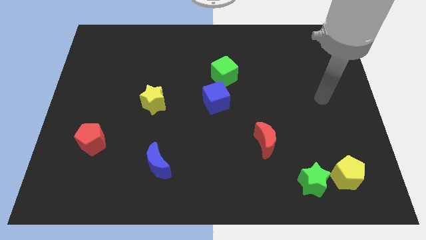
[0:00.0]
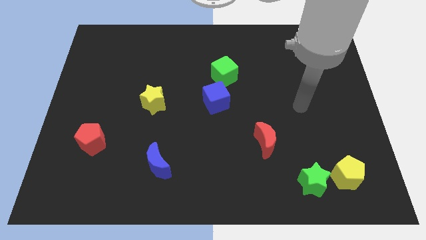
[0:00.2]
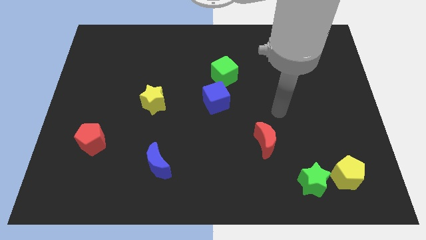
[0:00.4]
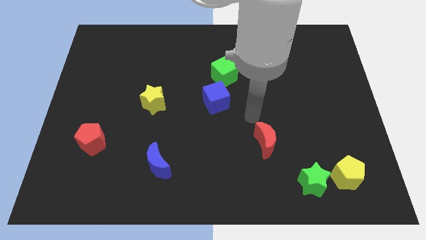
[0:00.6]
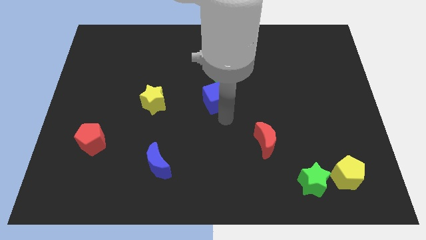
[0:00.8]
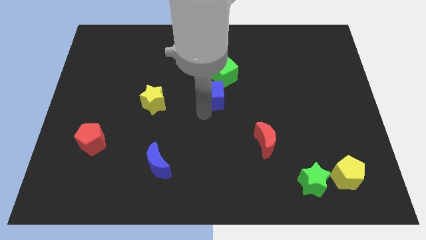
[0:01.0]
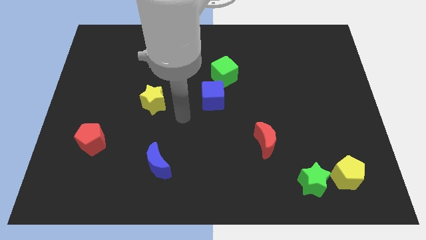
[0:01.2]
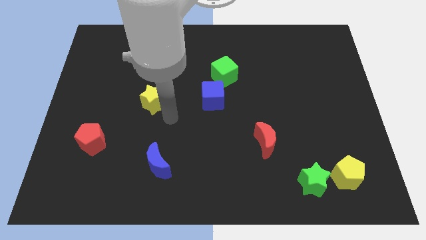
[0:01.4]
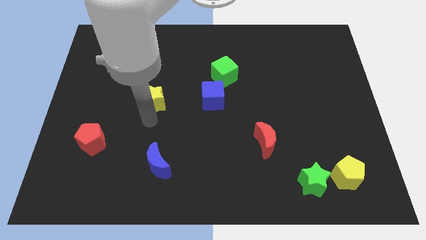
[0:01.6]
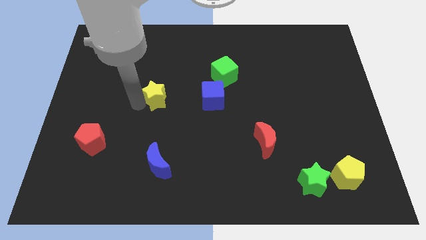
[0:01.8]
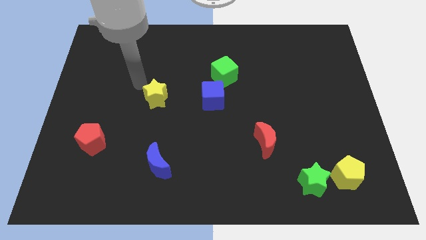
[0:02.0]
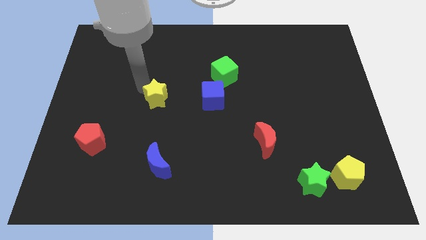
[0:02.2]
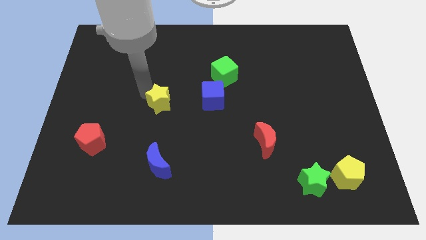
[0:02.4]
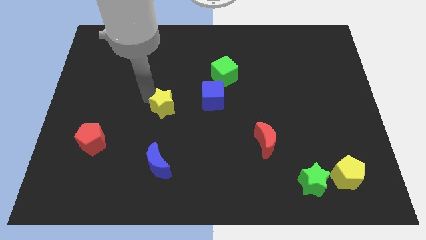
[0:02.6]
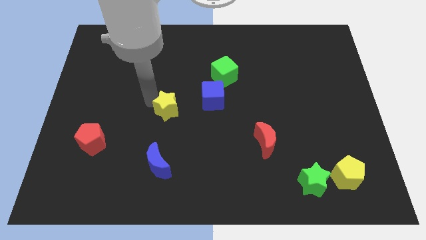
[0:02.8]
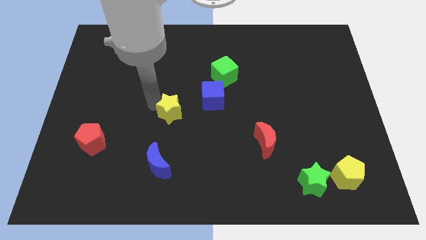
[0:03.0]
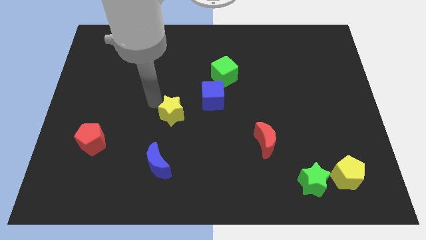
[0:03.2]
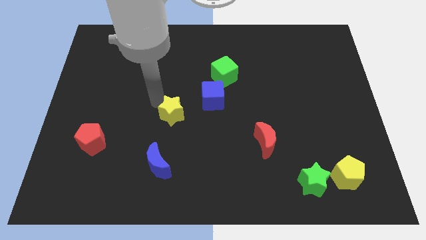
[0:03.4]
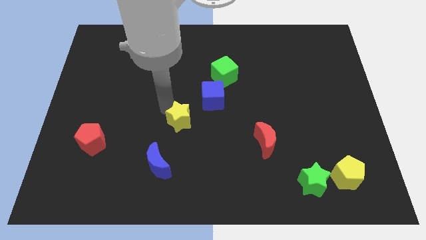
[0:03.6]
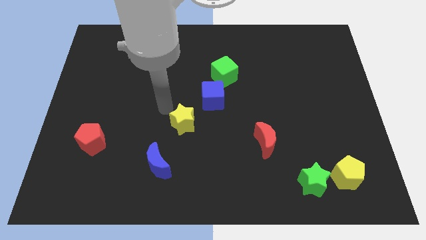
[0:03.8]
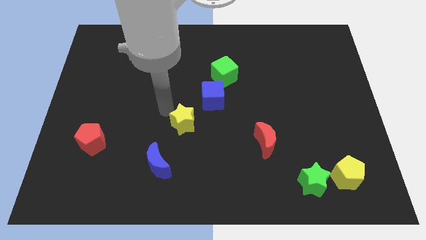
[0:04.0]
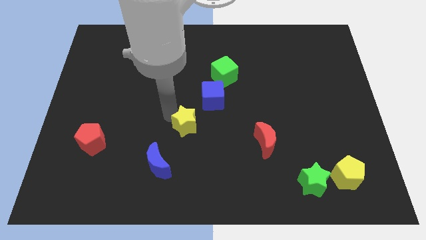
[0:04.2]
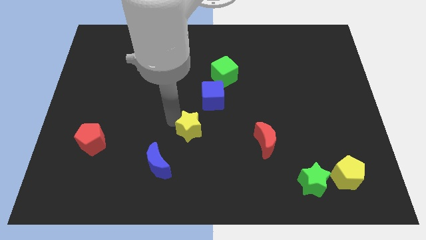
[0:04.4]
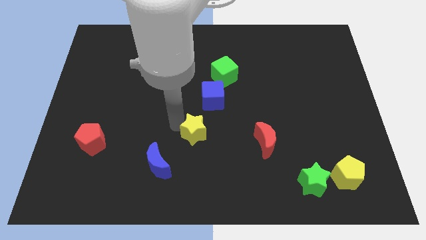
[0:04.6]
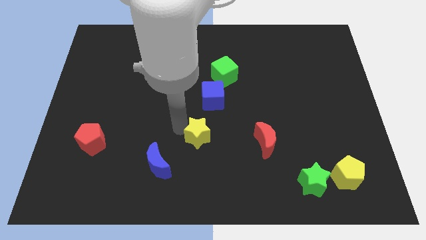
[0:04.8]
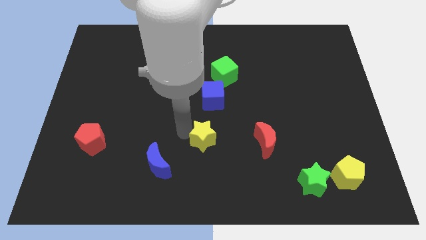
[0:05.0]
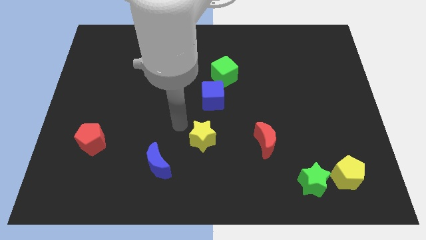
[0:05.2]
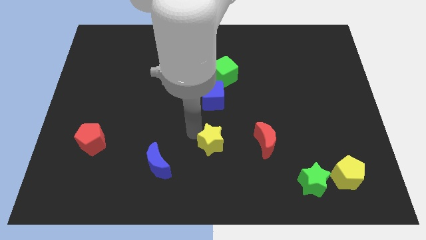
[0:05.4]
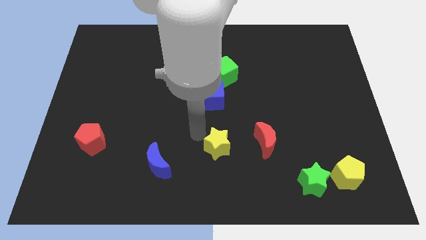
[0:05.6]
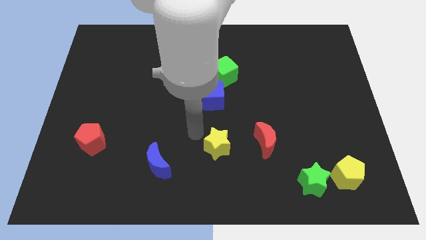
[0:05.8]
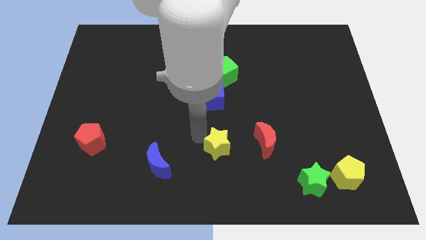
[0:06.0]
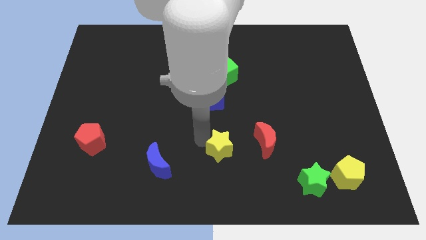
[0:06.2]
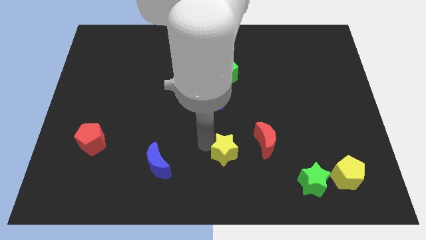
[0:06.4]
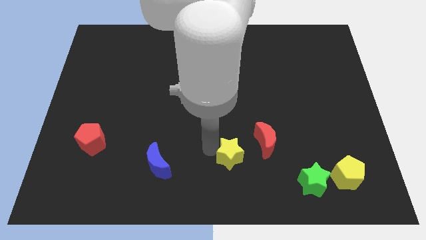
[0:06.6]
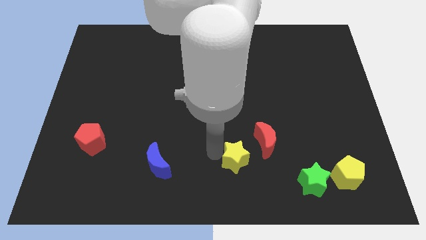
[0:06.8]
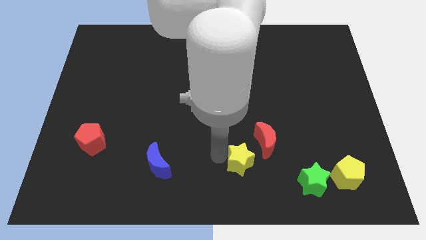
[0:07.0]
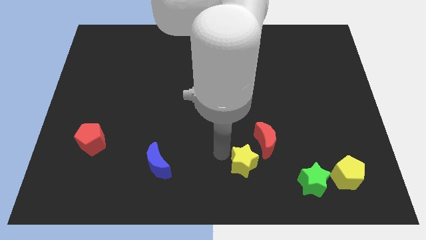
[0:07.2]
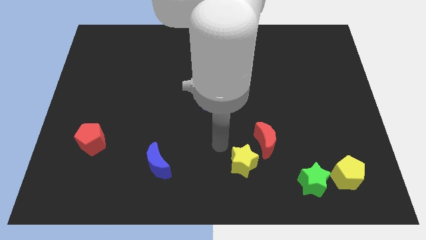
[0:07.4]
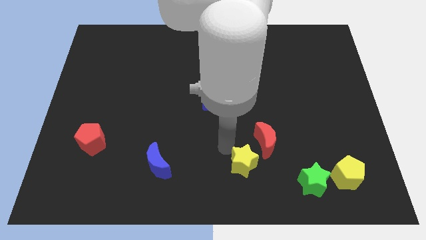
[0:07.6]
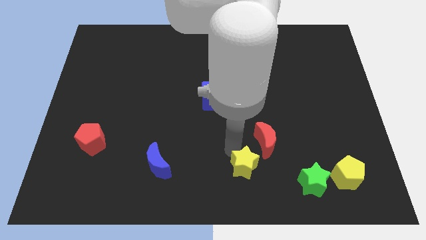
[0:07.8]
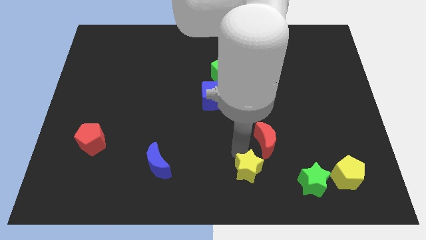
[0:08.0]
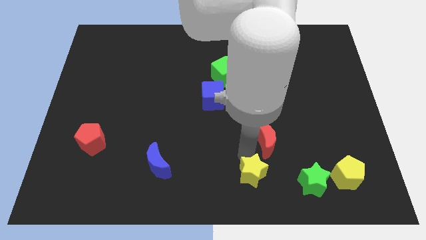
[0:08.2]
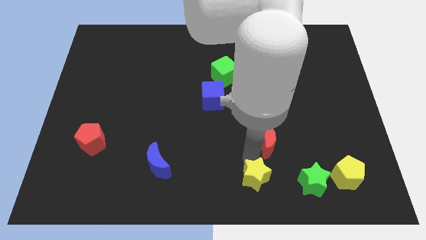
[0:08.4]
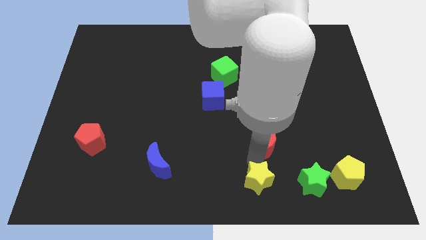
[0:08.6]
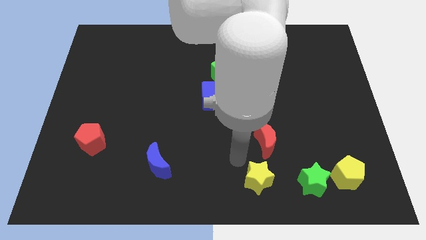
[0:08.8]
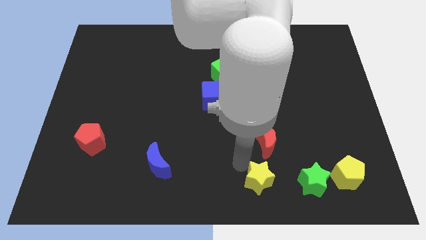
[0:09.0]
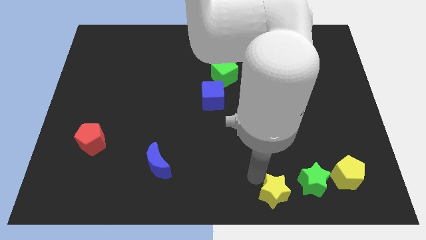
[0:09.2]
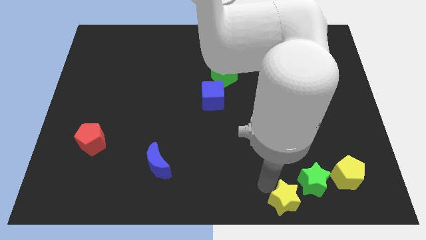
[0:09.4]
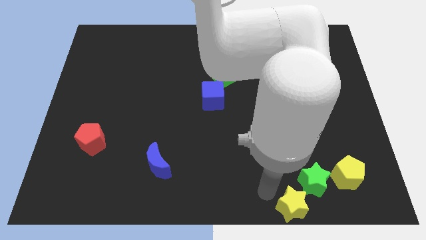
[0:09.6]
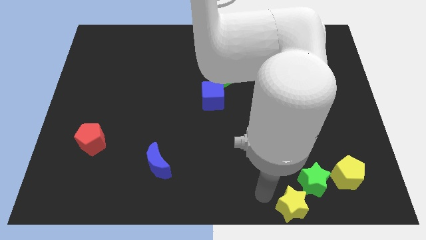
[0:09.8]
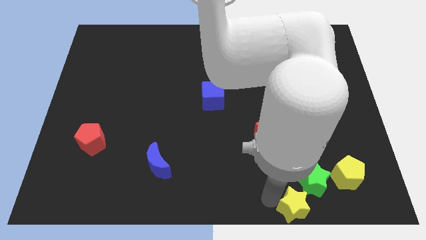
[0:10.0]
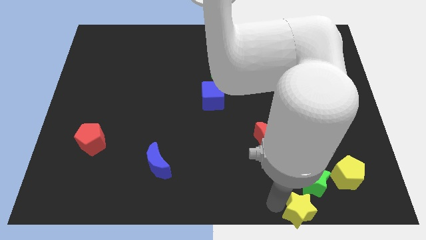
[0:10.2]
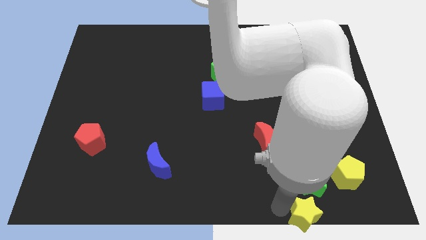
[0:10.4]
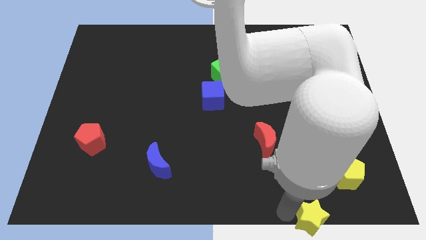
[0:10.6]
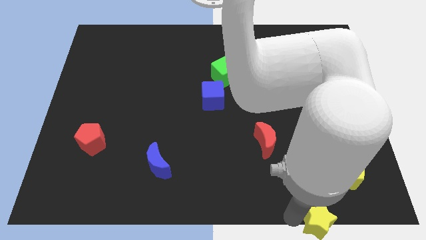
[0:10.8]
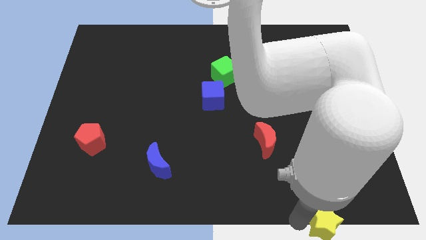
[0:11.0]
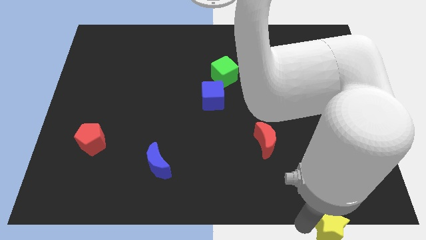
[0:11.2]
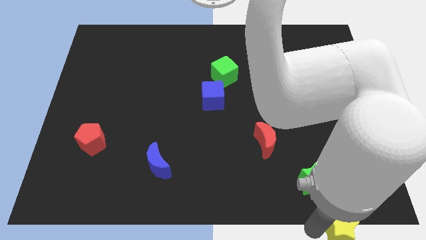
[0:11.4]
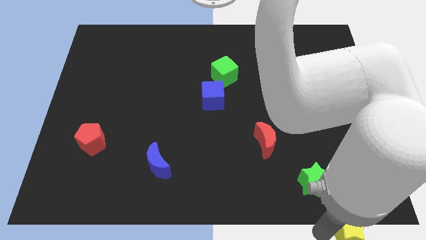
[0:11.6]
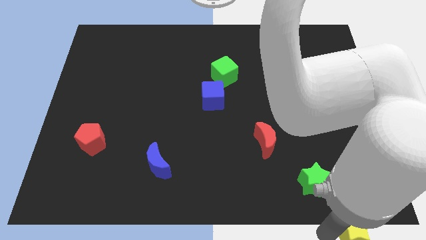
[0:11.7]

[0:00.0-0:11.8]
move the yellow star to the bottom right corner

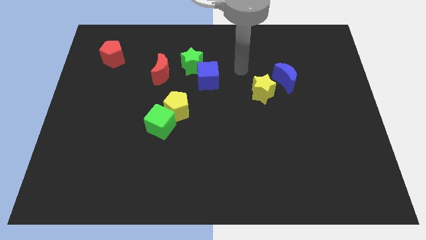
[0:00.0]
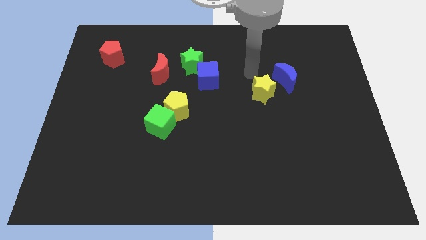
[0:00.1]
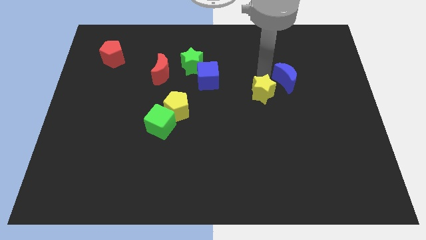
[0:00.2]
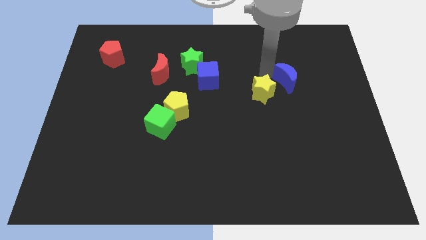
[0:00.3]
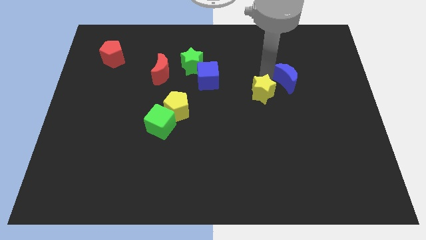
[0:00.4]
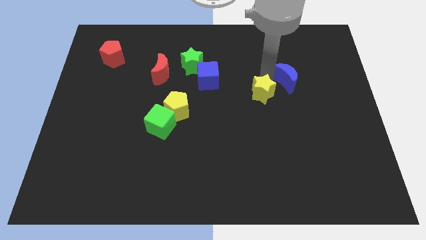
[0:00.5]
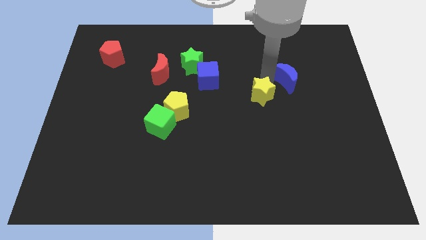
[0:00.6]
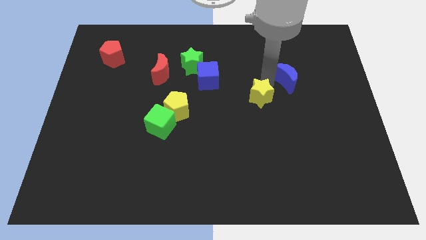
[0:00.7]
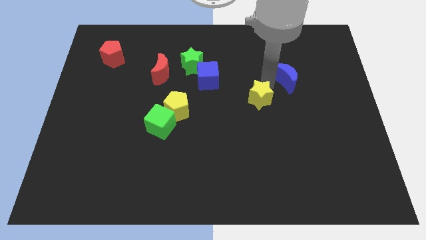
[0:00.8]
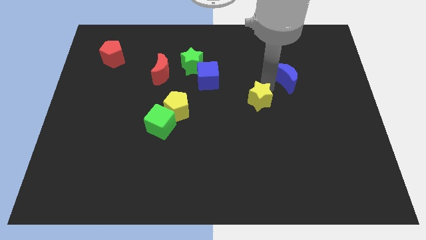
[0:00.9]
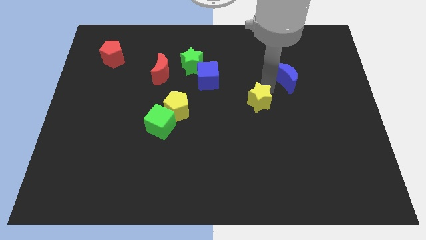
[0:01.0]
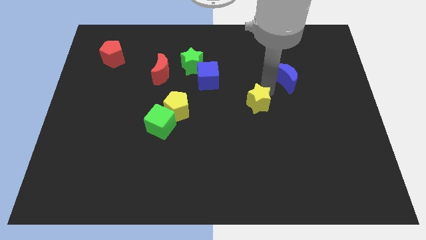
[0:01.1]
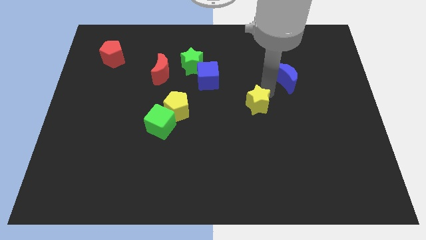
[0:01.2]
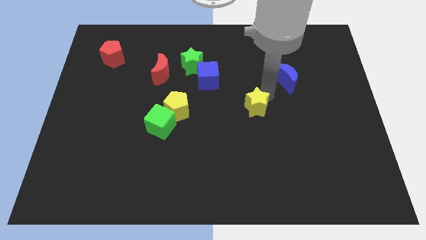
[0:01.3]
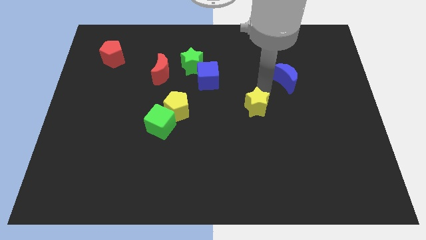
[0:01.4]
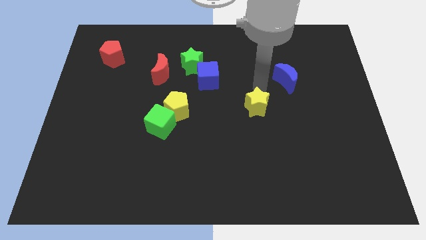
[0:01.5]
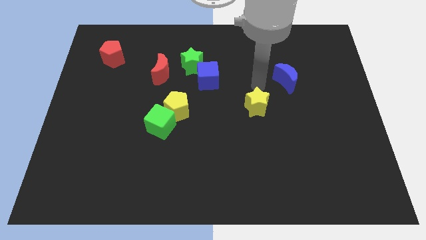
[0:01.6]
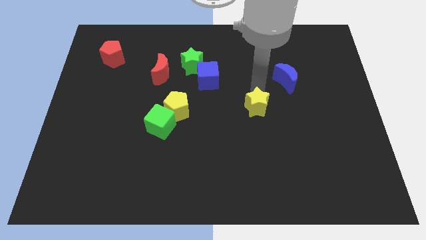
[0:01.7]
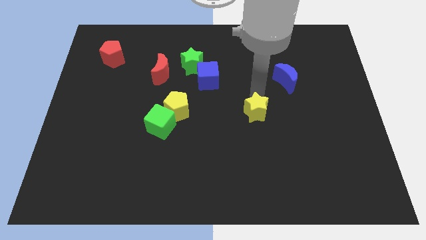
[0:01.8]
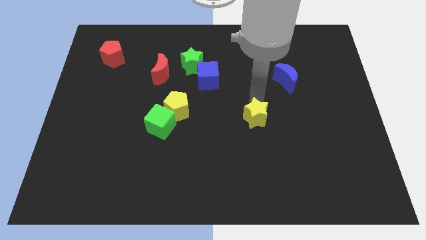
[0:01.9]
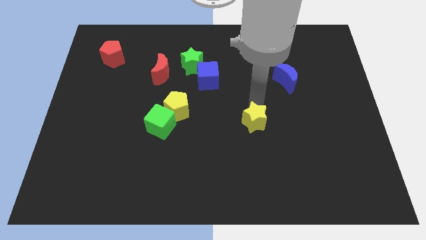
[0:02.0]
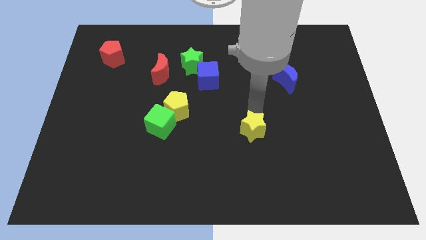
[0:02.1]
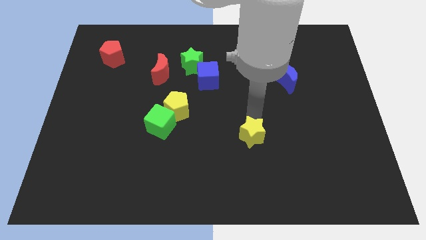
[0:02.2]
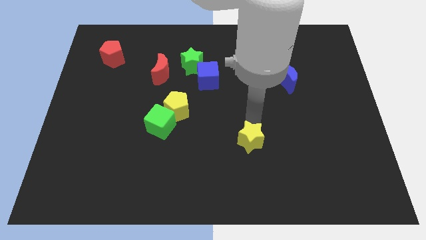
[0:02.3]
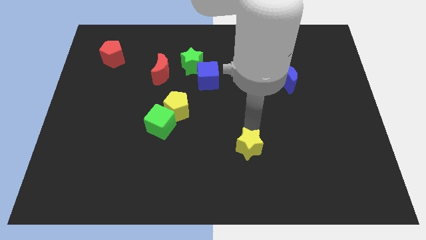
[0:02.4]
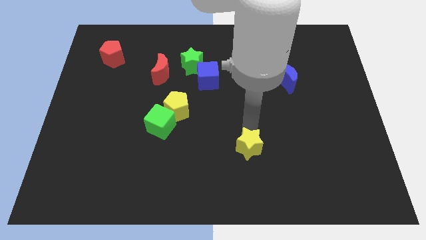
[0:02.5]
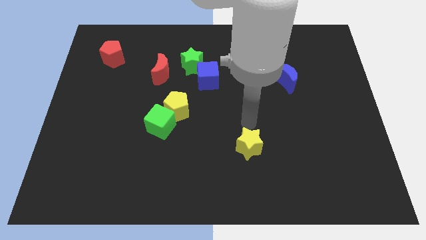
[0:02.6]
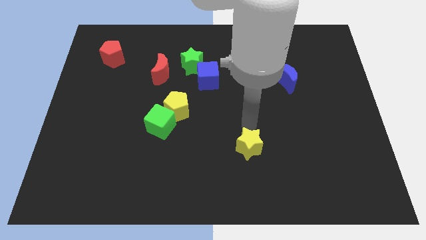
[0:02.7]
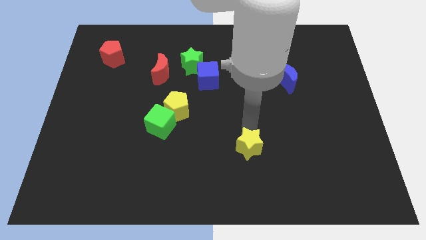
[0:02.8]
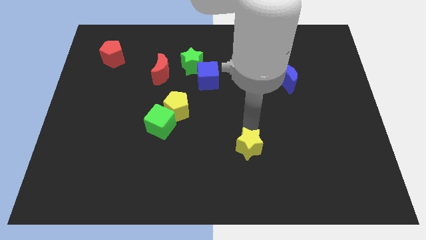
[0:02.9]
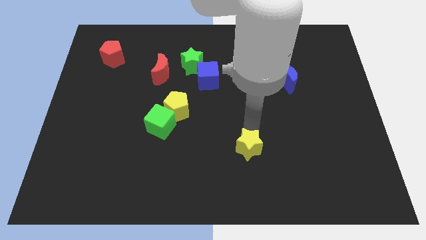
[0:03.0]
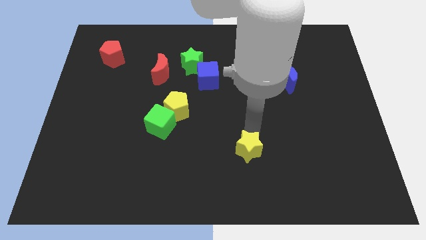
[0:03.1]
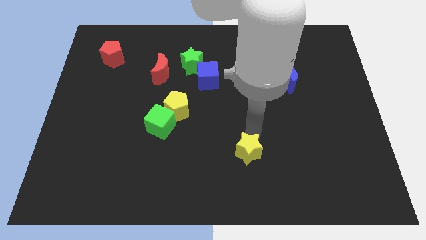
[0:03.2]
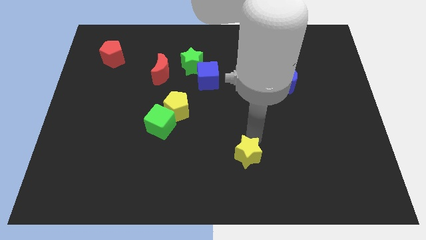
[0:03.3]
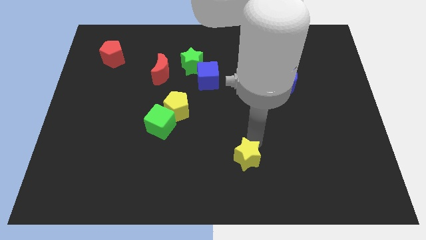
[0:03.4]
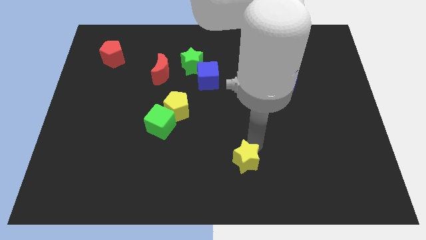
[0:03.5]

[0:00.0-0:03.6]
move the yellow star to the bottom side
